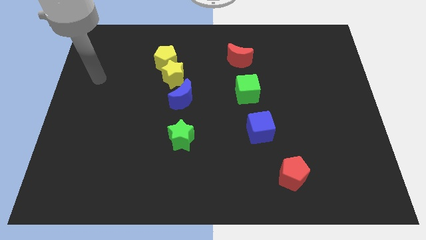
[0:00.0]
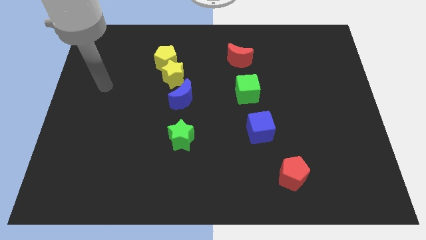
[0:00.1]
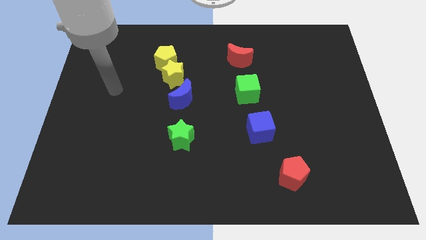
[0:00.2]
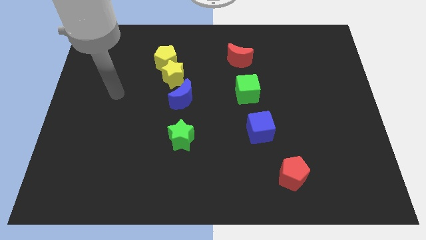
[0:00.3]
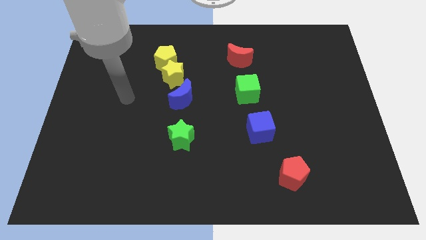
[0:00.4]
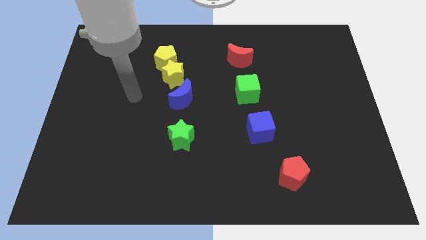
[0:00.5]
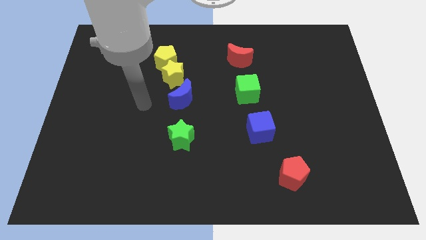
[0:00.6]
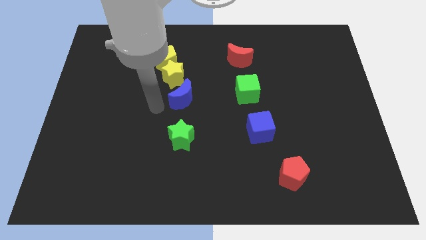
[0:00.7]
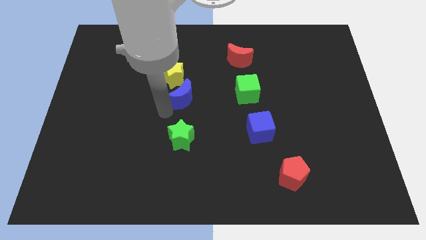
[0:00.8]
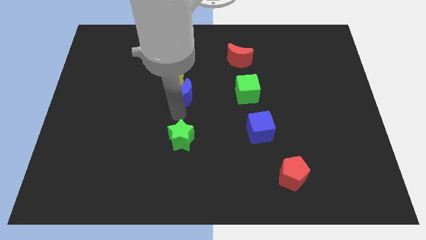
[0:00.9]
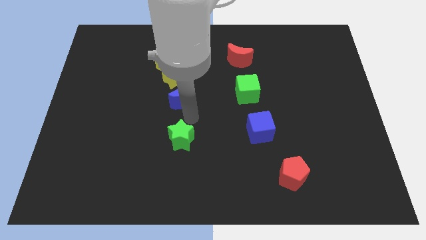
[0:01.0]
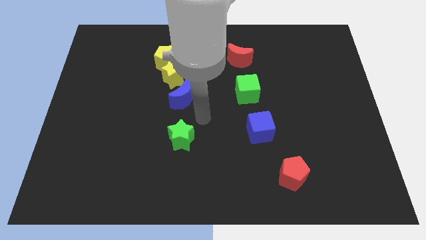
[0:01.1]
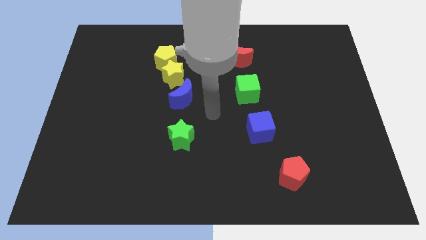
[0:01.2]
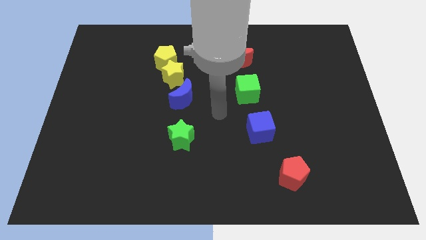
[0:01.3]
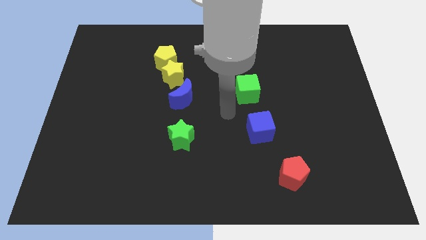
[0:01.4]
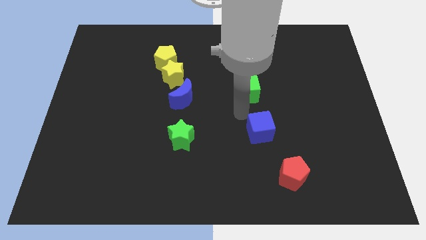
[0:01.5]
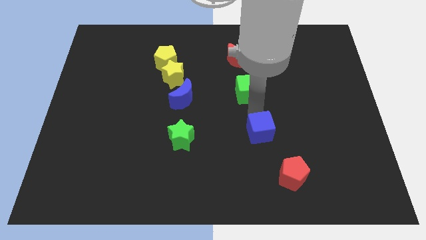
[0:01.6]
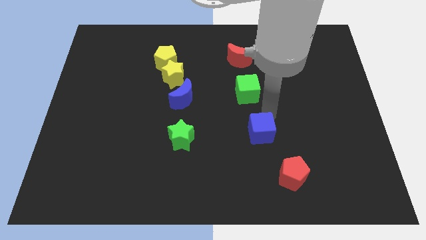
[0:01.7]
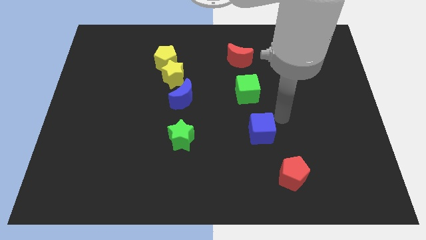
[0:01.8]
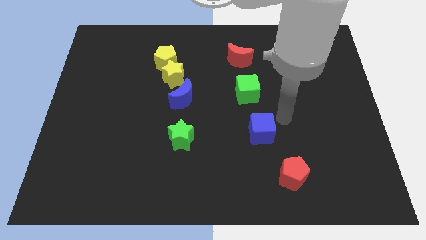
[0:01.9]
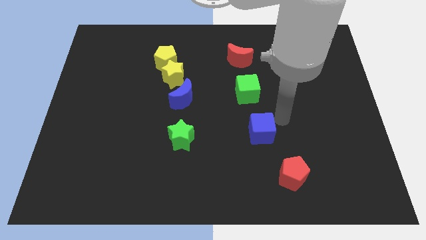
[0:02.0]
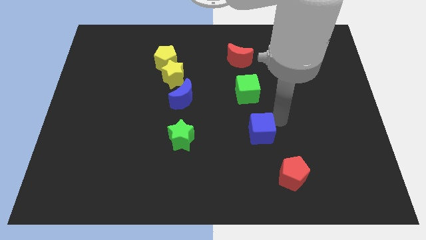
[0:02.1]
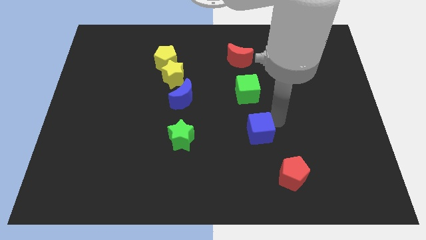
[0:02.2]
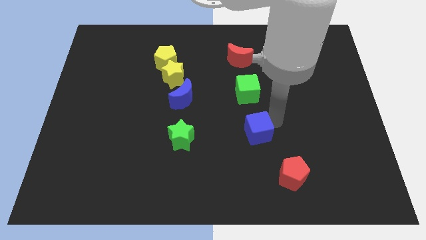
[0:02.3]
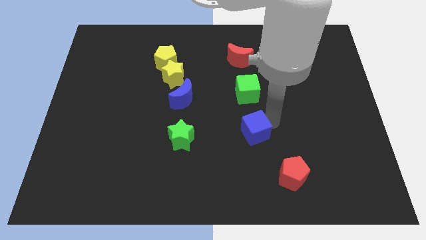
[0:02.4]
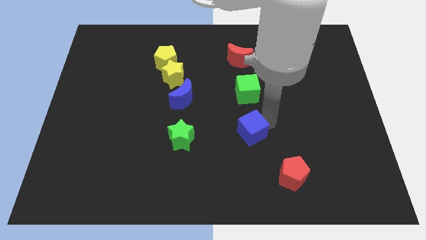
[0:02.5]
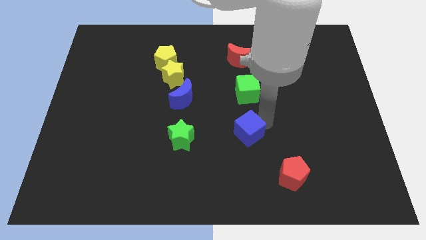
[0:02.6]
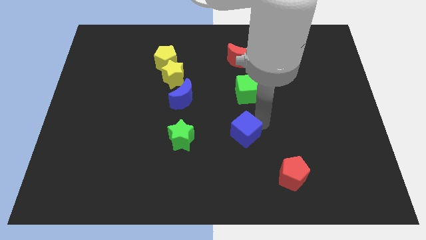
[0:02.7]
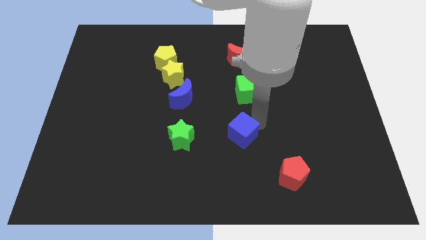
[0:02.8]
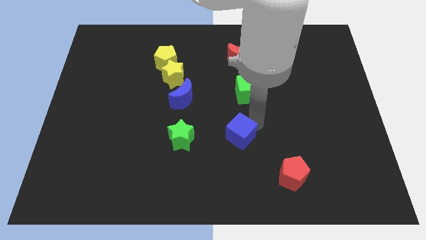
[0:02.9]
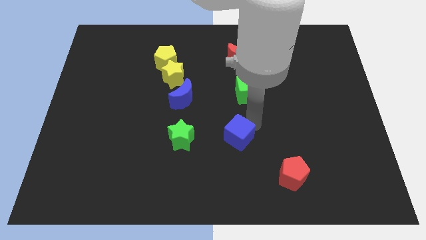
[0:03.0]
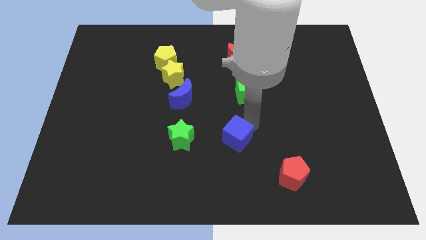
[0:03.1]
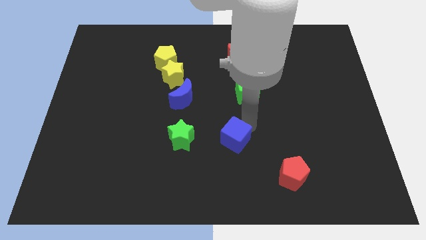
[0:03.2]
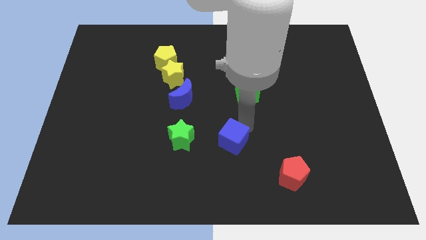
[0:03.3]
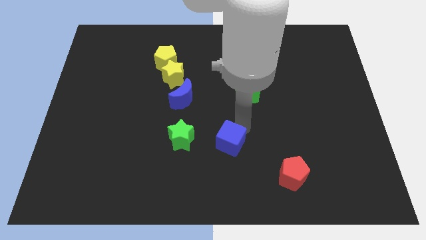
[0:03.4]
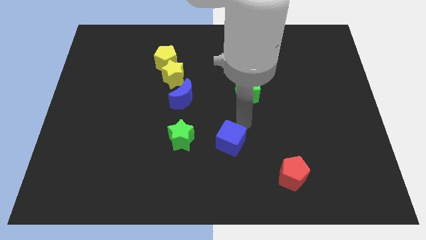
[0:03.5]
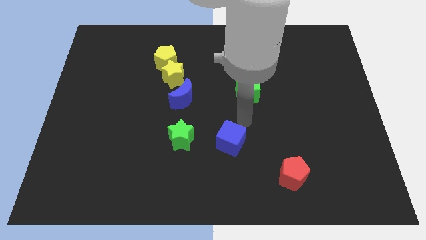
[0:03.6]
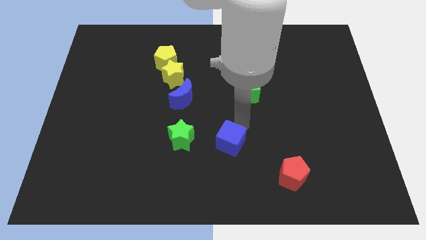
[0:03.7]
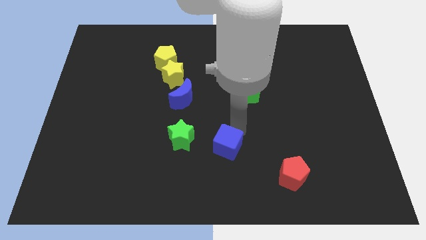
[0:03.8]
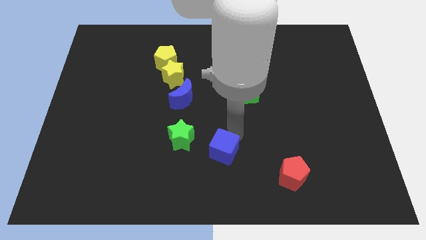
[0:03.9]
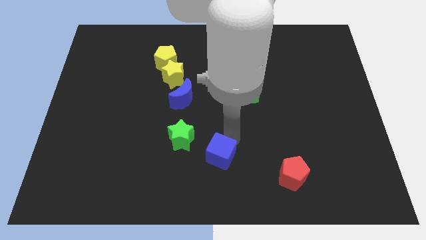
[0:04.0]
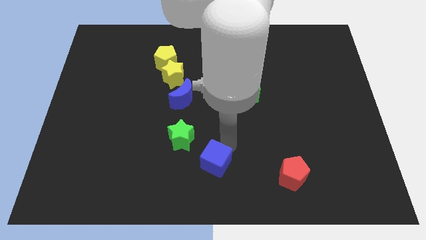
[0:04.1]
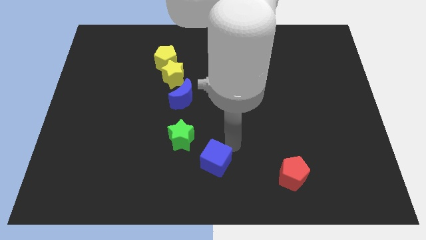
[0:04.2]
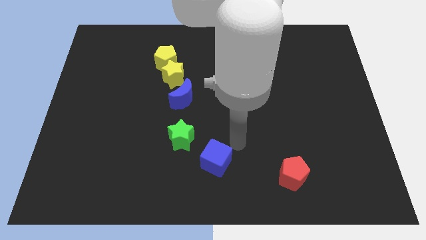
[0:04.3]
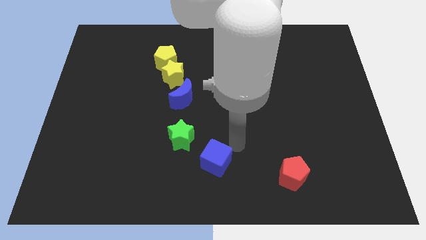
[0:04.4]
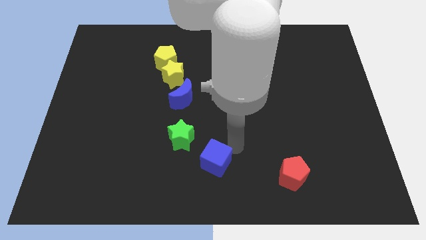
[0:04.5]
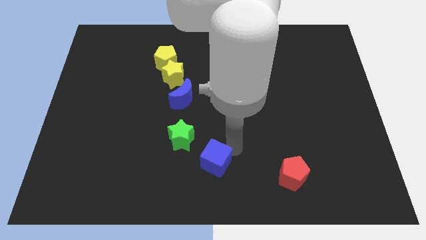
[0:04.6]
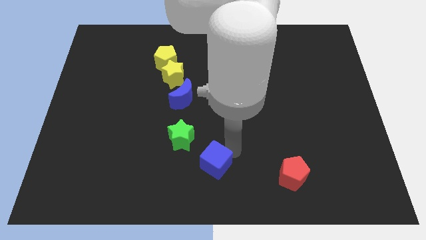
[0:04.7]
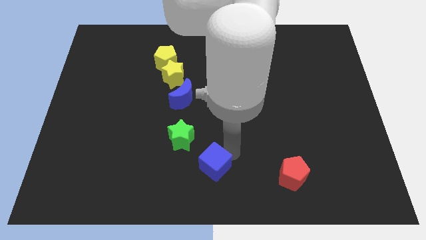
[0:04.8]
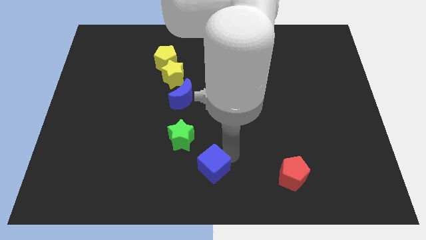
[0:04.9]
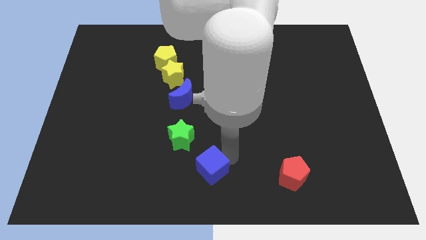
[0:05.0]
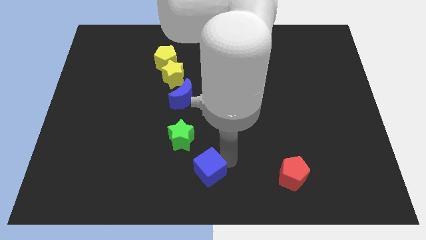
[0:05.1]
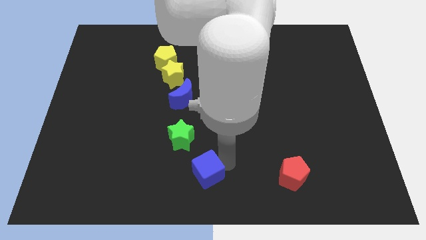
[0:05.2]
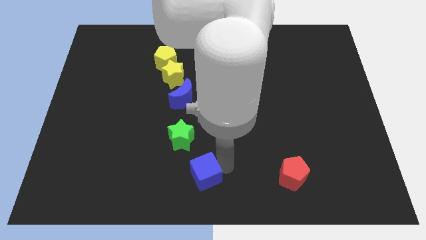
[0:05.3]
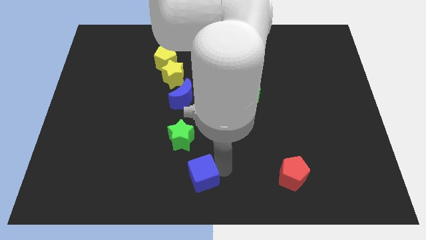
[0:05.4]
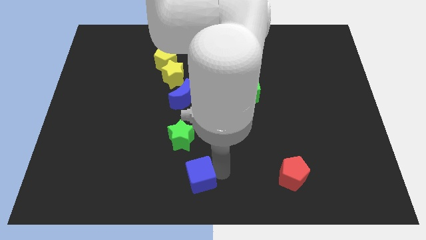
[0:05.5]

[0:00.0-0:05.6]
put the blue cube to the bottom of the green star

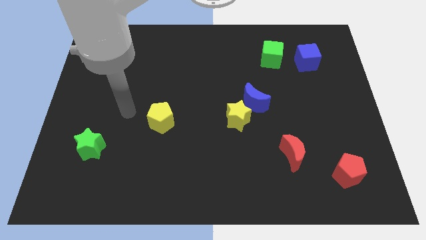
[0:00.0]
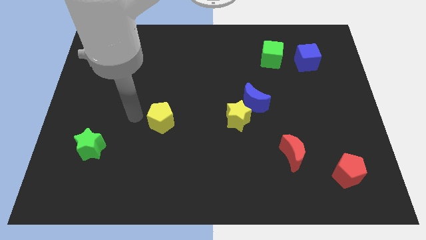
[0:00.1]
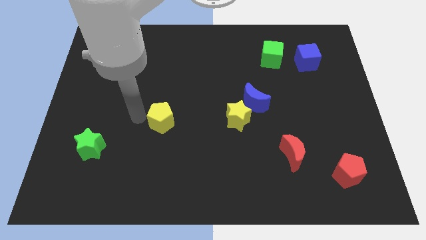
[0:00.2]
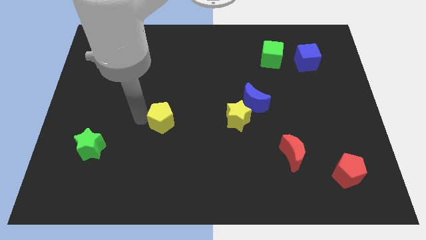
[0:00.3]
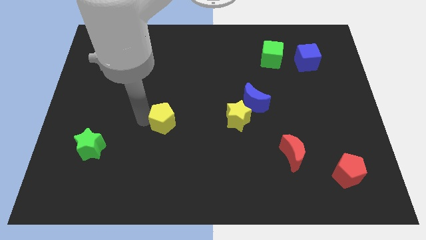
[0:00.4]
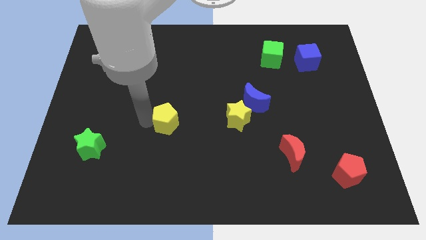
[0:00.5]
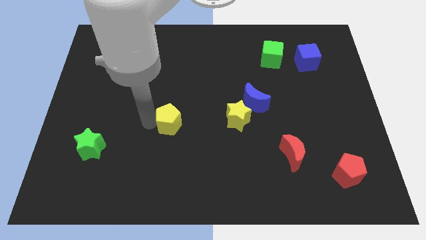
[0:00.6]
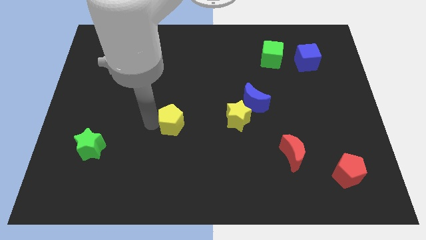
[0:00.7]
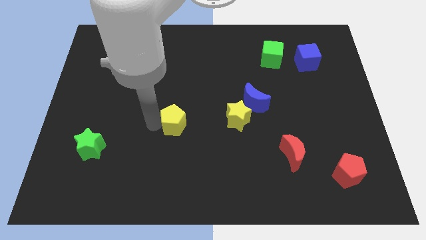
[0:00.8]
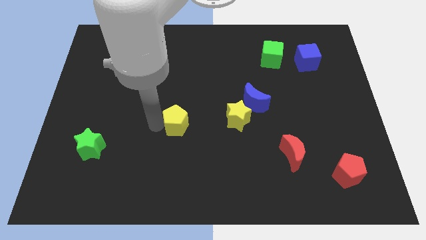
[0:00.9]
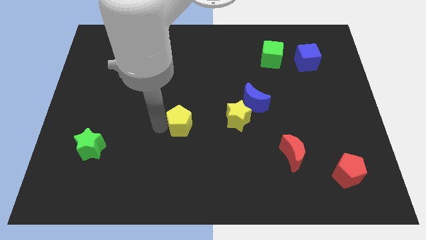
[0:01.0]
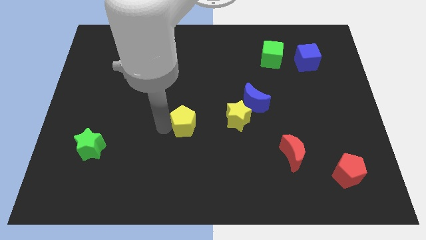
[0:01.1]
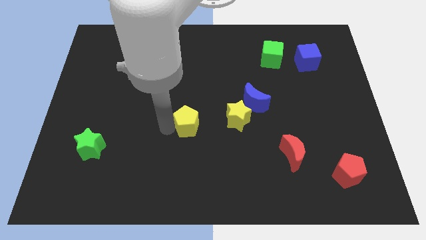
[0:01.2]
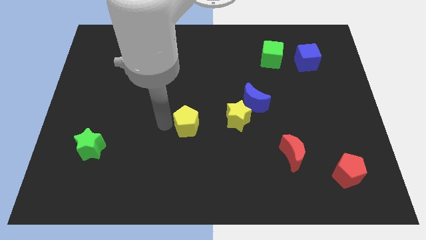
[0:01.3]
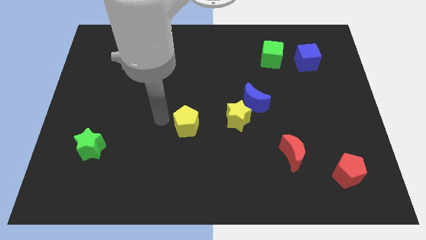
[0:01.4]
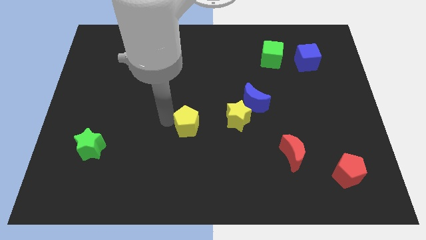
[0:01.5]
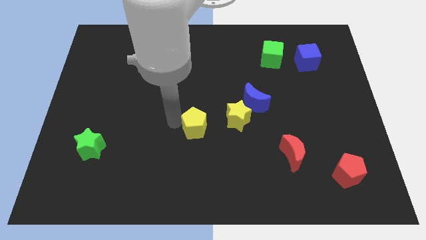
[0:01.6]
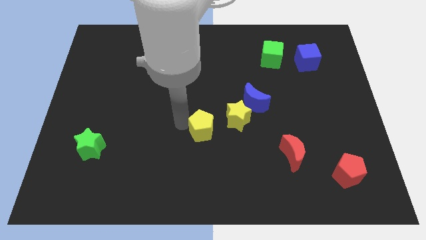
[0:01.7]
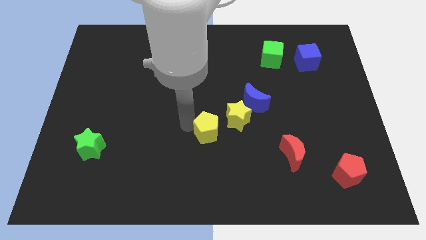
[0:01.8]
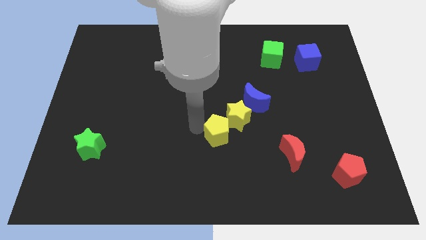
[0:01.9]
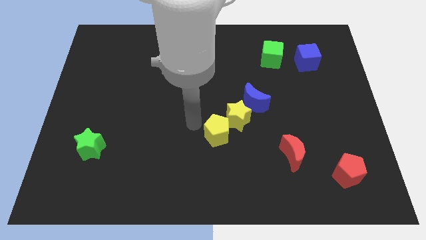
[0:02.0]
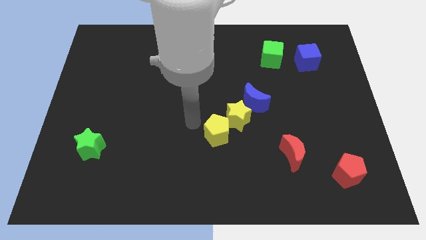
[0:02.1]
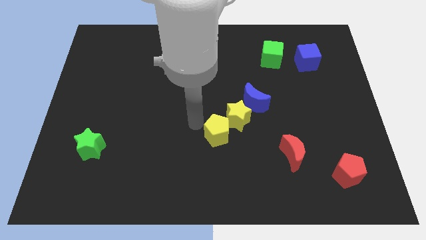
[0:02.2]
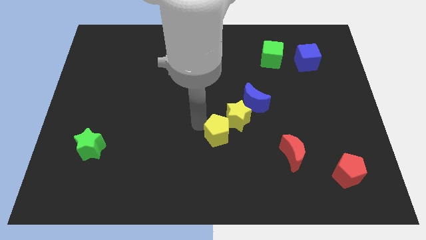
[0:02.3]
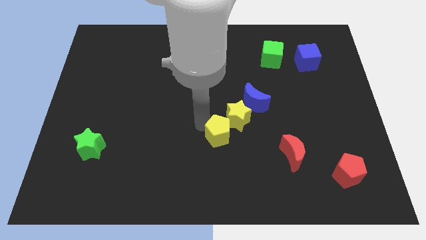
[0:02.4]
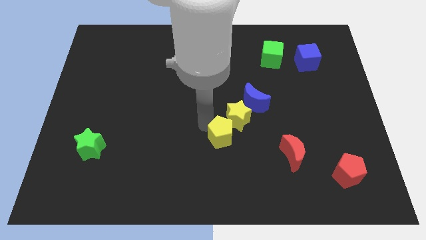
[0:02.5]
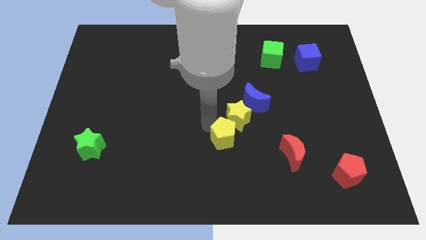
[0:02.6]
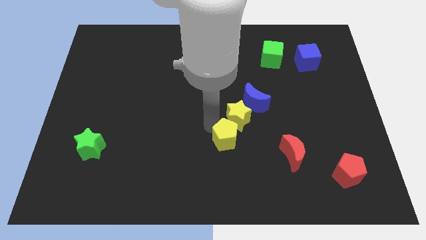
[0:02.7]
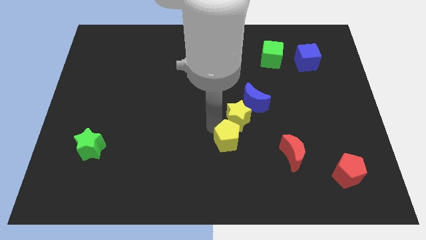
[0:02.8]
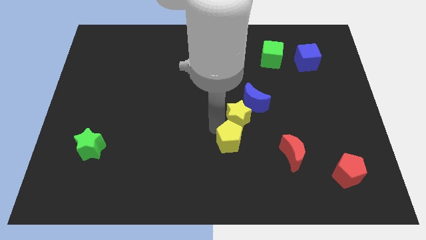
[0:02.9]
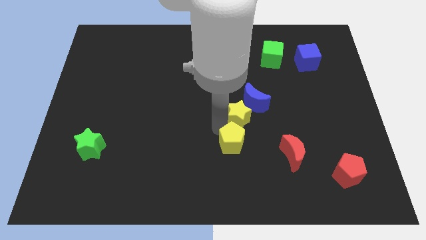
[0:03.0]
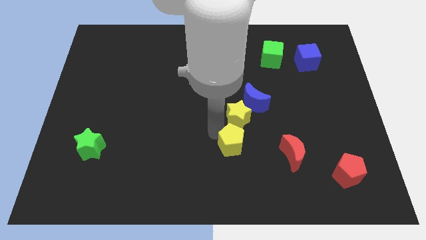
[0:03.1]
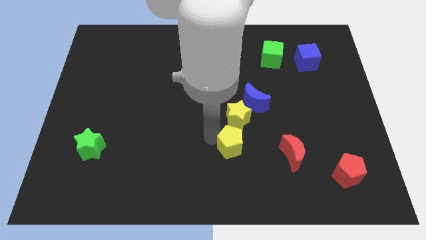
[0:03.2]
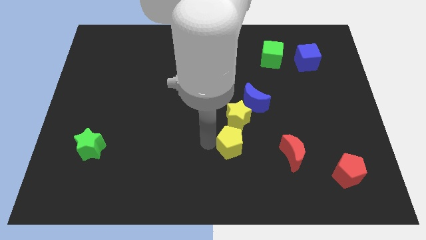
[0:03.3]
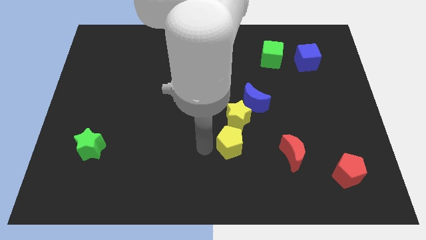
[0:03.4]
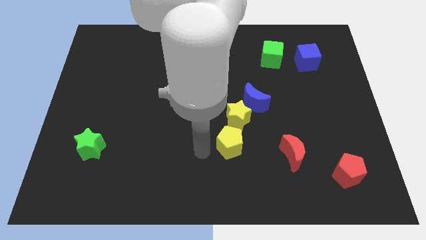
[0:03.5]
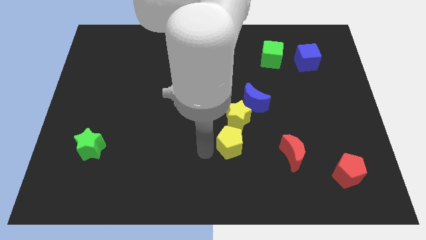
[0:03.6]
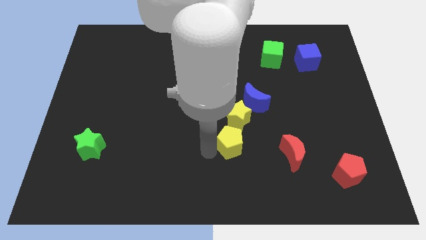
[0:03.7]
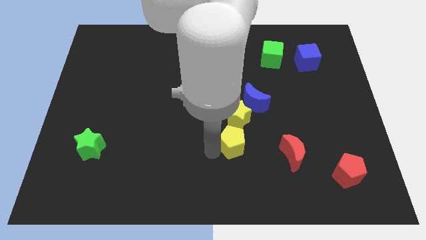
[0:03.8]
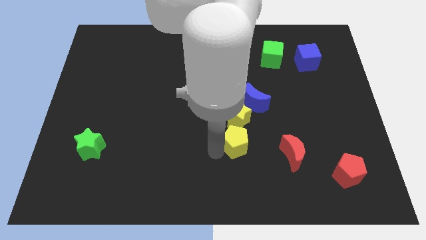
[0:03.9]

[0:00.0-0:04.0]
move the yellow pentagon to the bottom right side of the yellow star
